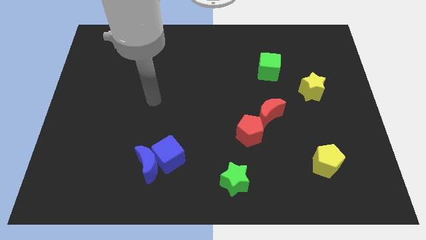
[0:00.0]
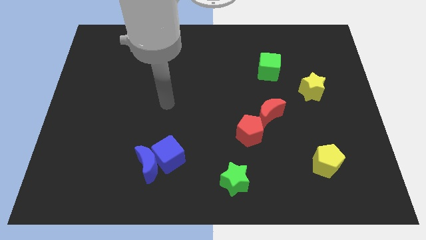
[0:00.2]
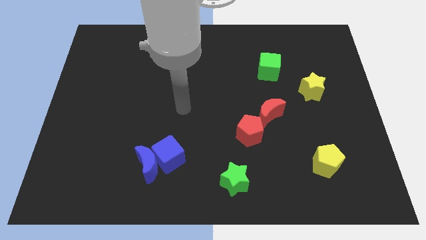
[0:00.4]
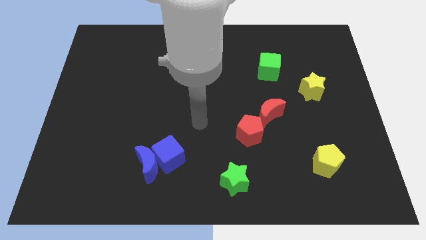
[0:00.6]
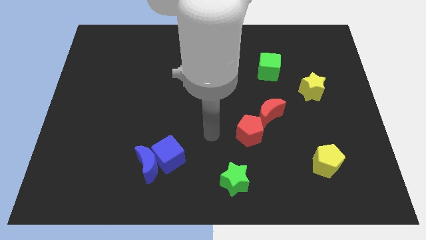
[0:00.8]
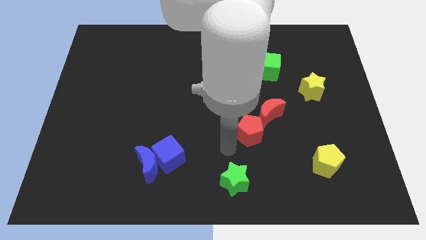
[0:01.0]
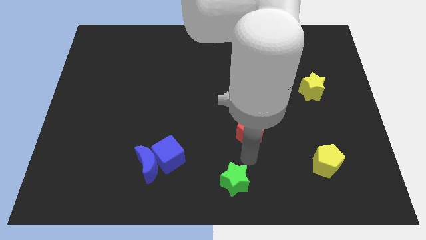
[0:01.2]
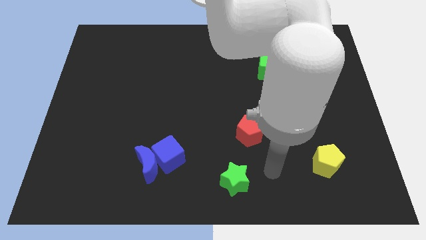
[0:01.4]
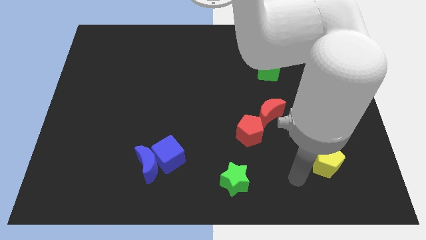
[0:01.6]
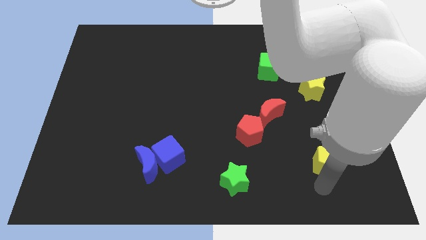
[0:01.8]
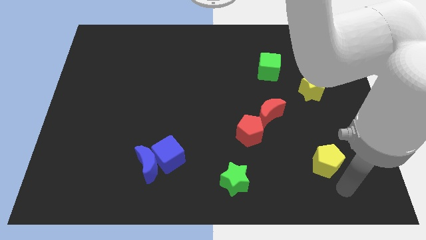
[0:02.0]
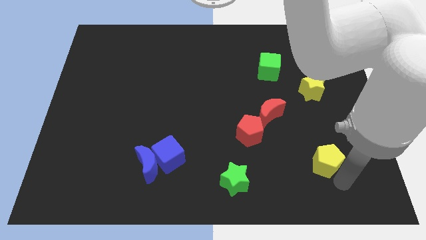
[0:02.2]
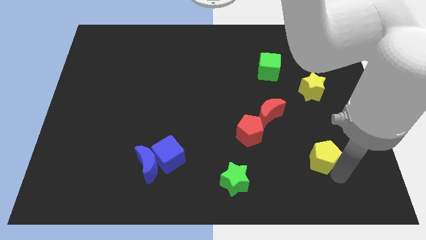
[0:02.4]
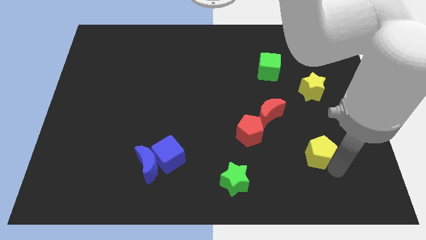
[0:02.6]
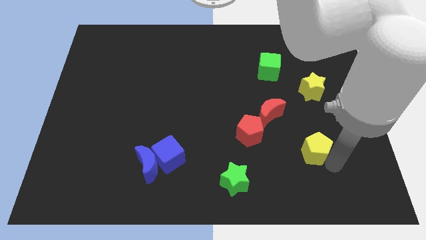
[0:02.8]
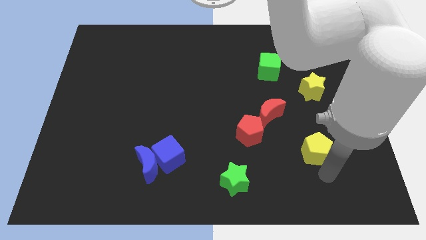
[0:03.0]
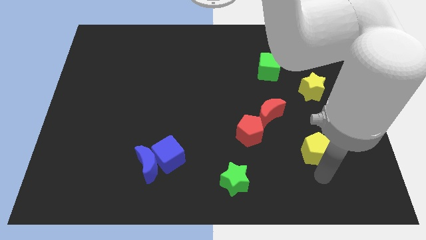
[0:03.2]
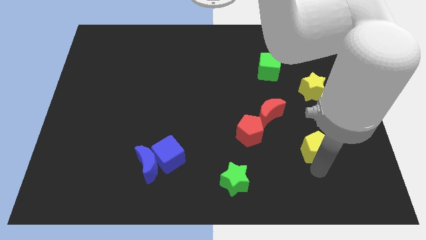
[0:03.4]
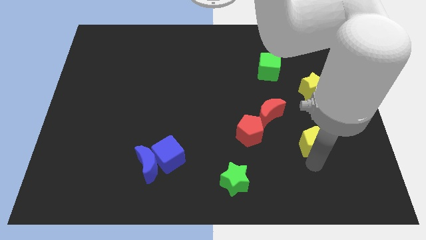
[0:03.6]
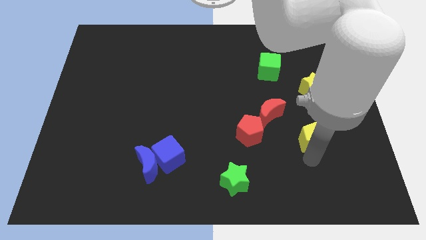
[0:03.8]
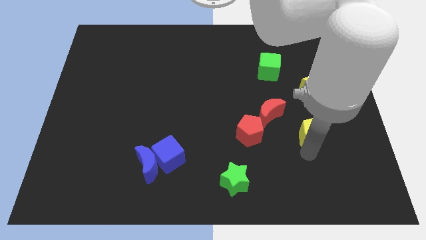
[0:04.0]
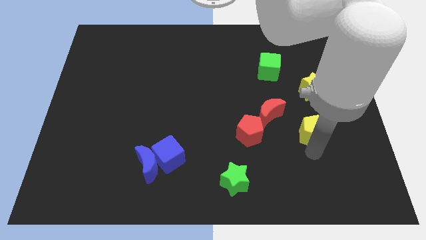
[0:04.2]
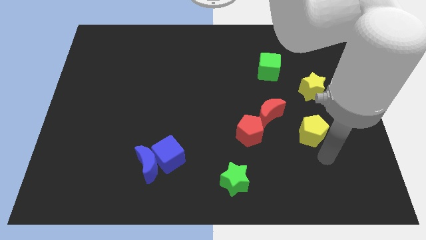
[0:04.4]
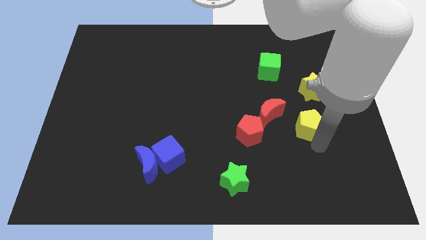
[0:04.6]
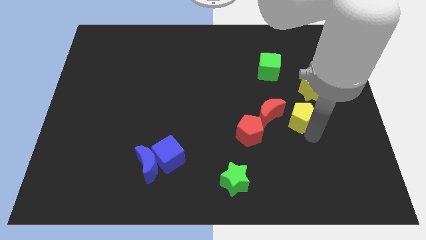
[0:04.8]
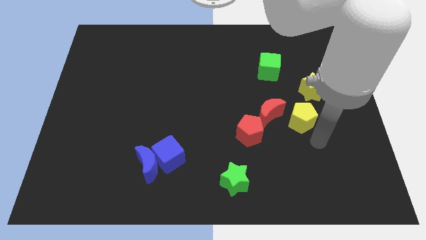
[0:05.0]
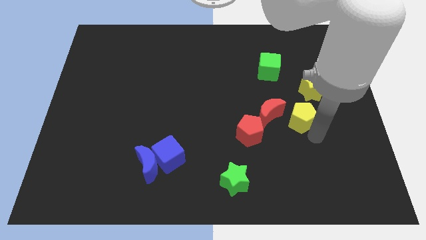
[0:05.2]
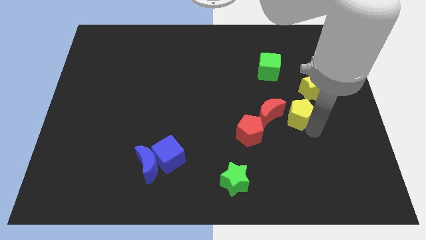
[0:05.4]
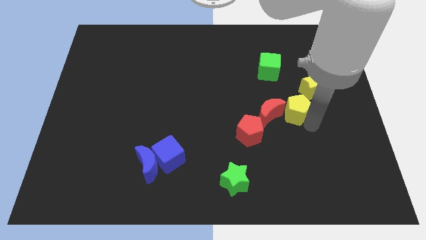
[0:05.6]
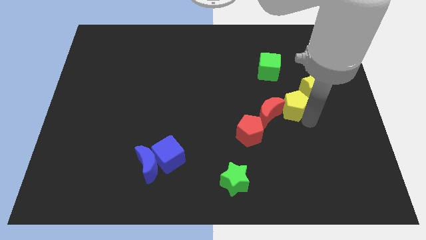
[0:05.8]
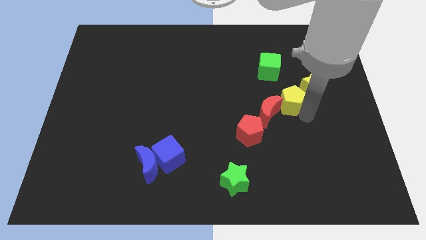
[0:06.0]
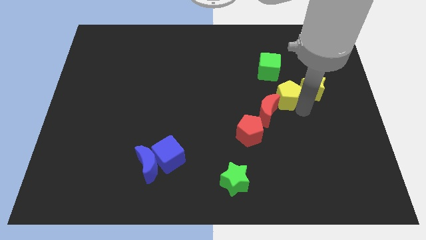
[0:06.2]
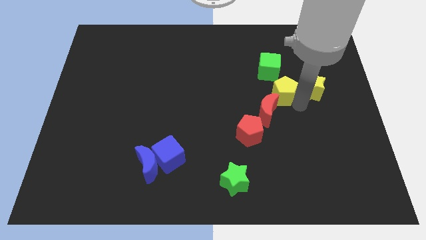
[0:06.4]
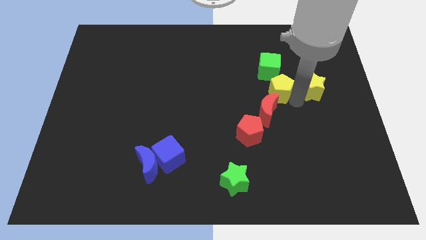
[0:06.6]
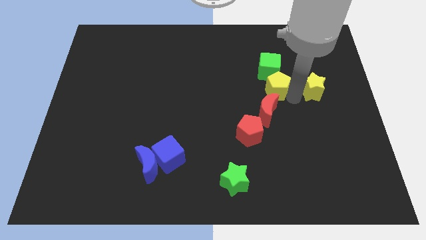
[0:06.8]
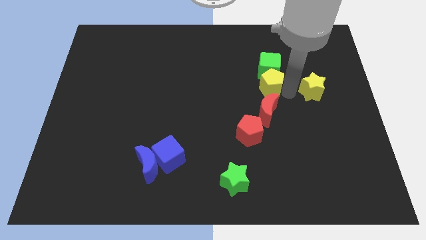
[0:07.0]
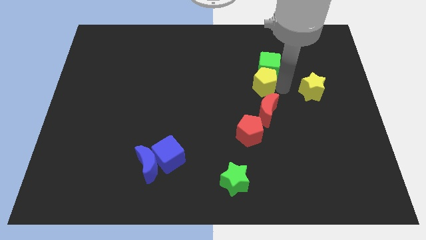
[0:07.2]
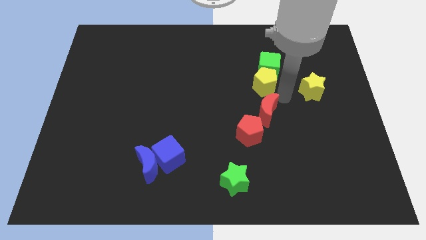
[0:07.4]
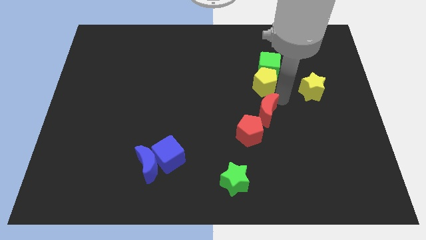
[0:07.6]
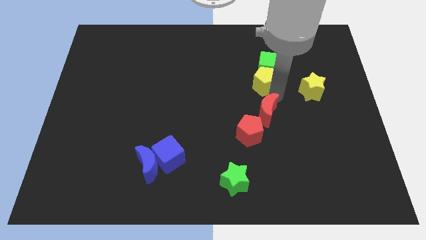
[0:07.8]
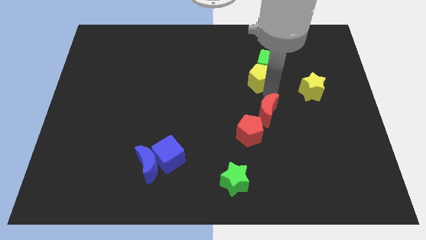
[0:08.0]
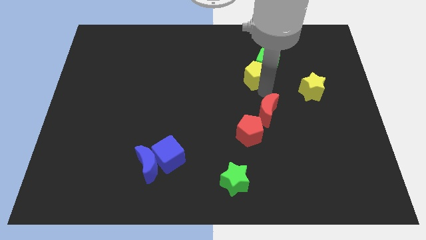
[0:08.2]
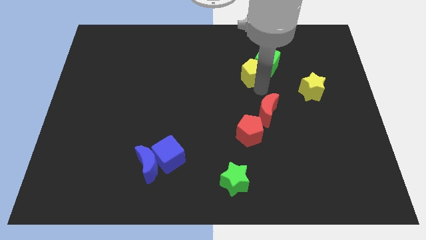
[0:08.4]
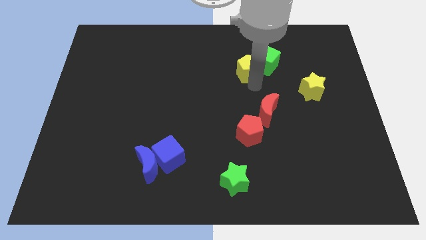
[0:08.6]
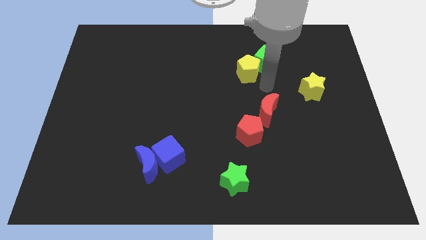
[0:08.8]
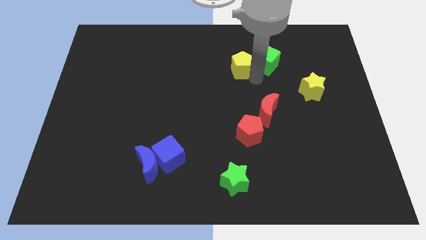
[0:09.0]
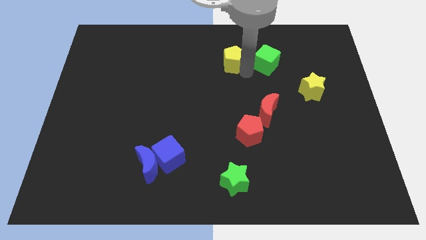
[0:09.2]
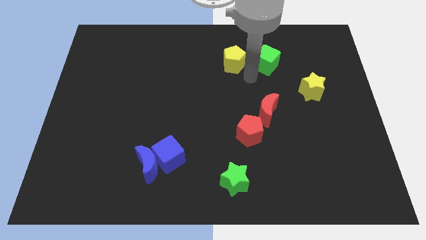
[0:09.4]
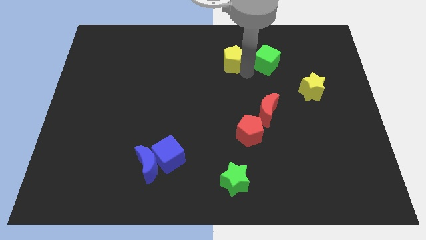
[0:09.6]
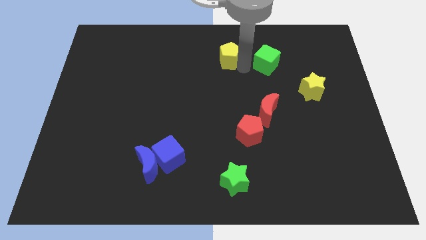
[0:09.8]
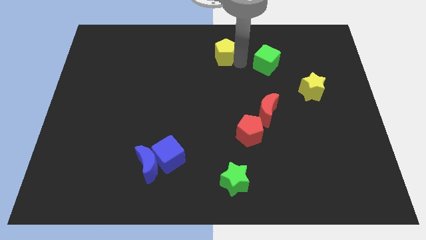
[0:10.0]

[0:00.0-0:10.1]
push the yellow pentagon to the towards your base

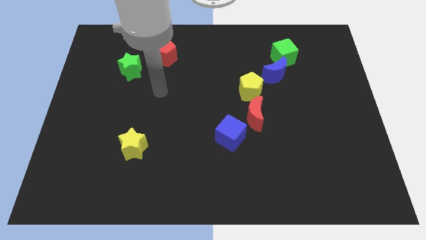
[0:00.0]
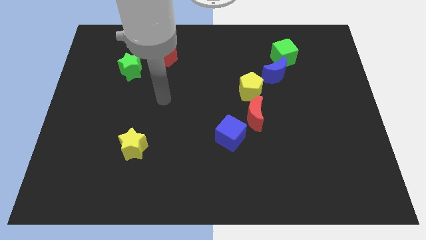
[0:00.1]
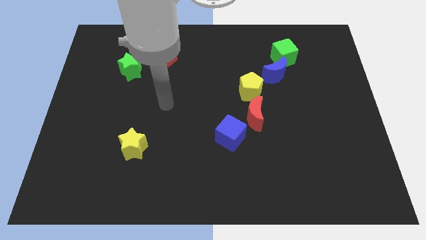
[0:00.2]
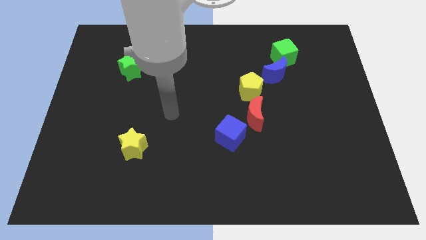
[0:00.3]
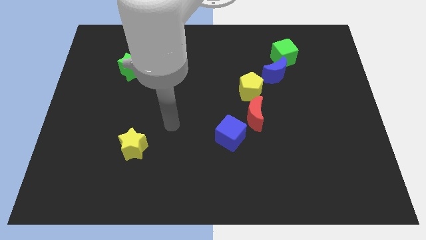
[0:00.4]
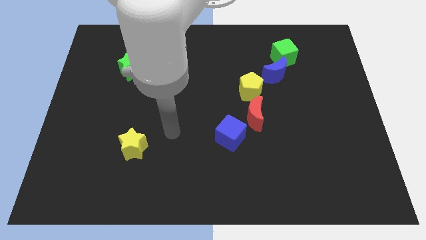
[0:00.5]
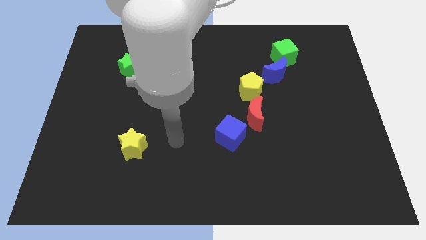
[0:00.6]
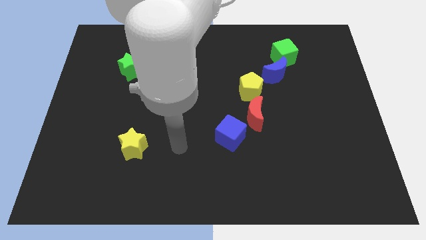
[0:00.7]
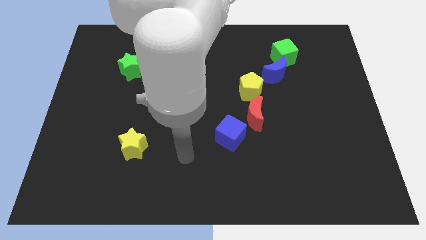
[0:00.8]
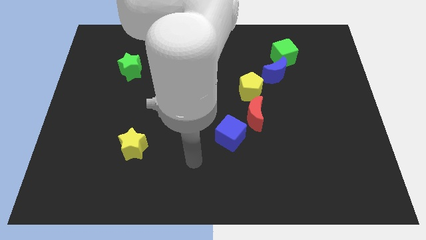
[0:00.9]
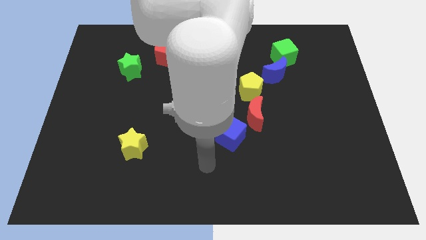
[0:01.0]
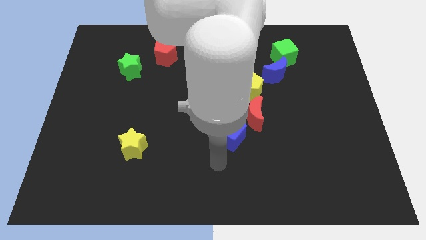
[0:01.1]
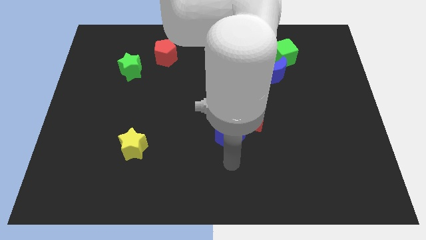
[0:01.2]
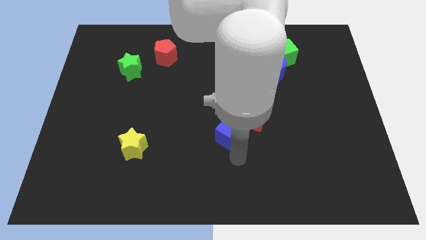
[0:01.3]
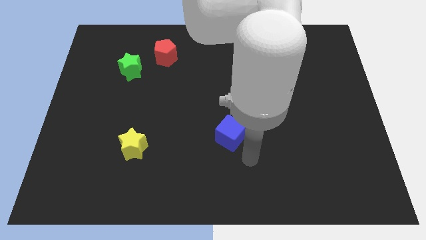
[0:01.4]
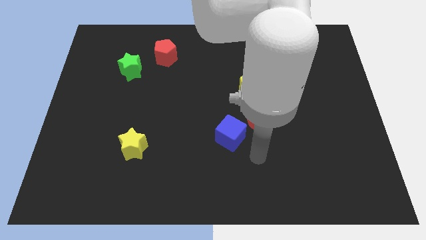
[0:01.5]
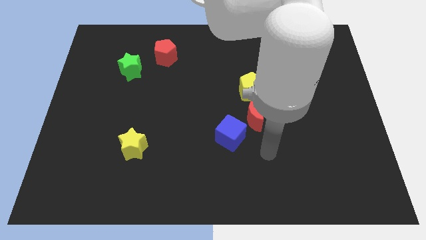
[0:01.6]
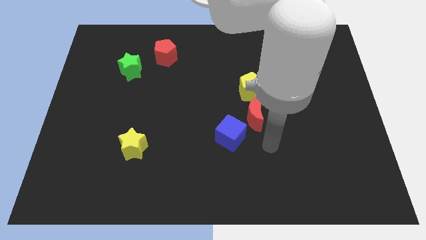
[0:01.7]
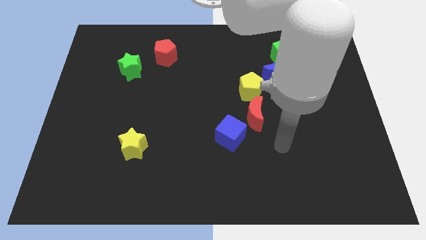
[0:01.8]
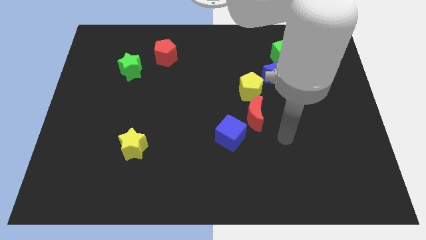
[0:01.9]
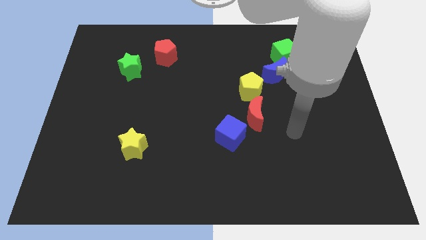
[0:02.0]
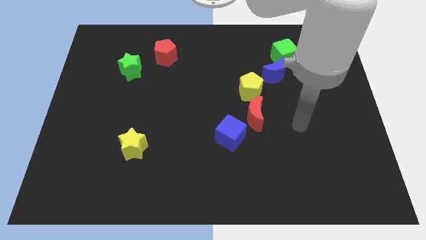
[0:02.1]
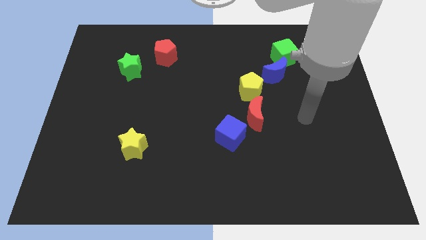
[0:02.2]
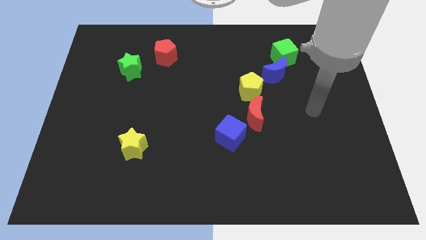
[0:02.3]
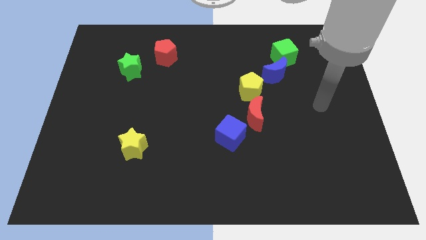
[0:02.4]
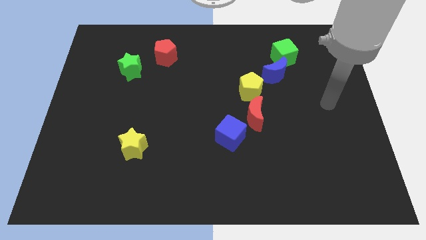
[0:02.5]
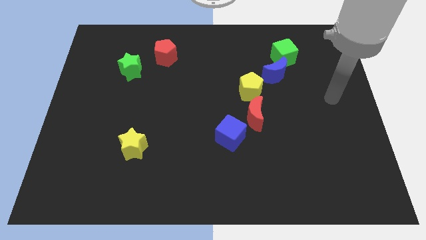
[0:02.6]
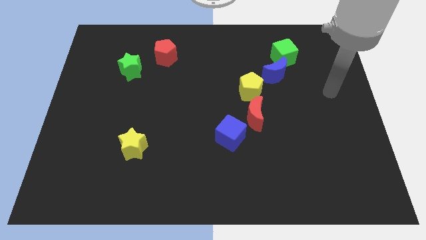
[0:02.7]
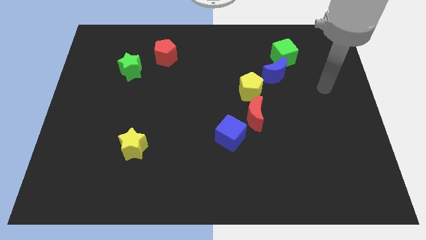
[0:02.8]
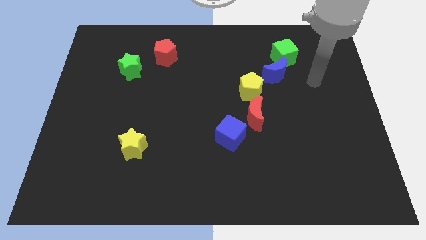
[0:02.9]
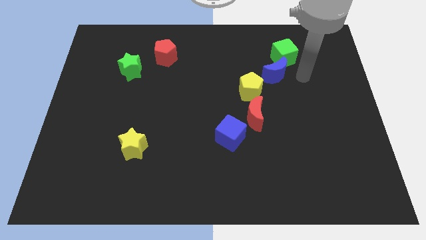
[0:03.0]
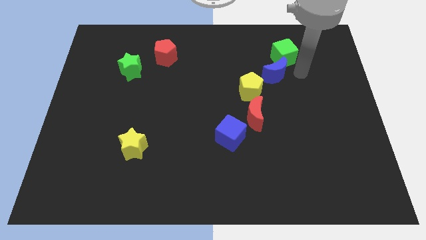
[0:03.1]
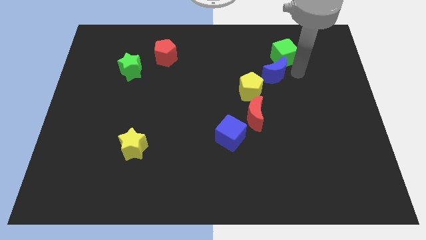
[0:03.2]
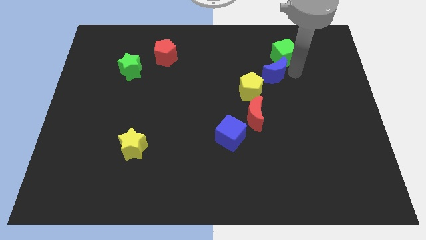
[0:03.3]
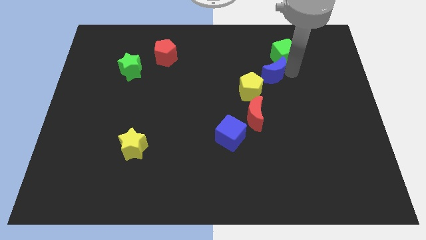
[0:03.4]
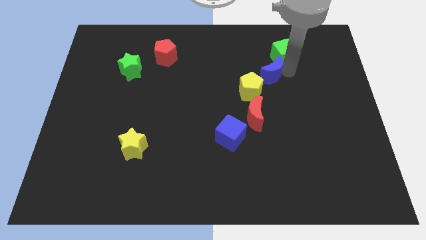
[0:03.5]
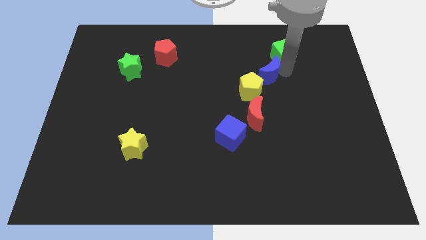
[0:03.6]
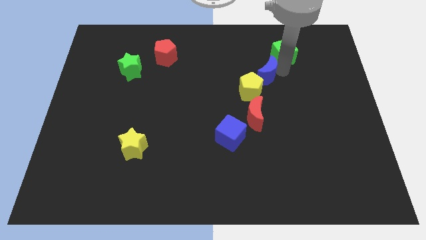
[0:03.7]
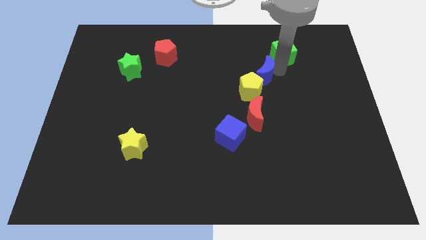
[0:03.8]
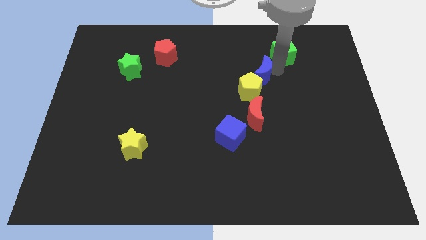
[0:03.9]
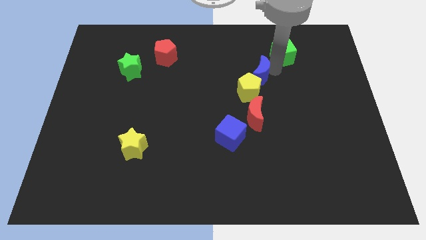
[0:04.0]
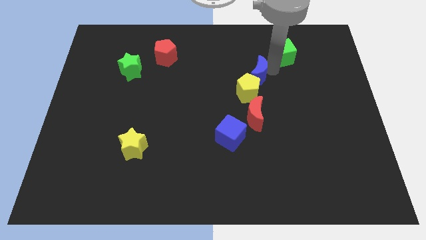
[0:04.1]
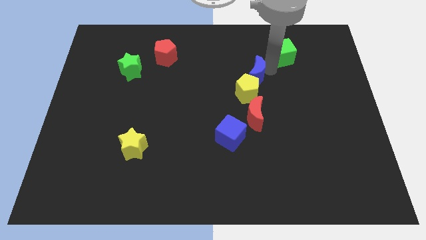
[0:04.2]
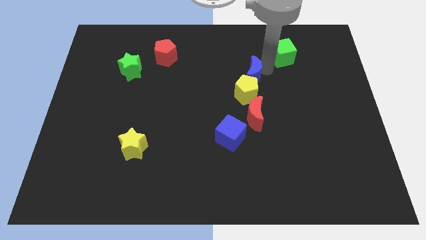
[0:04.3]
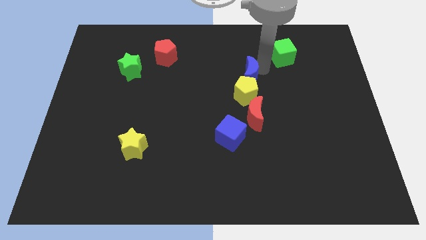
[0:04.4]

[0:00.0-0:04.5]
slide the blue moon to the middle of the board
